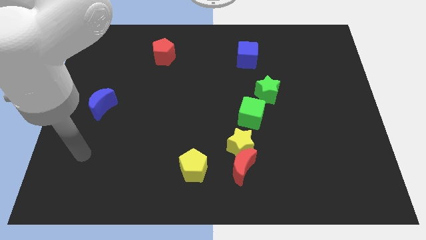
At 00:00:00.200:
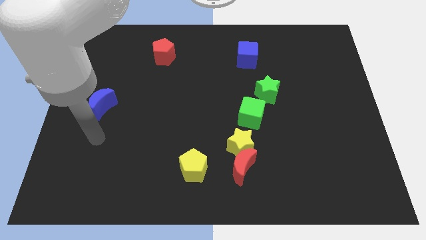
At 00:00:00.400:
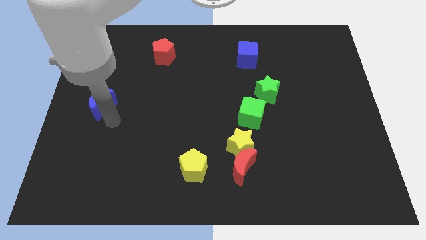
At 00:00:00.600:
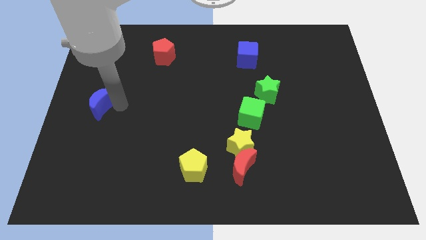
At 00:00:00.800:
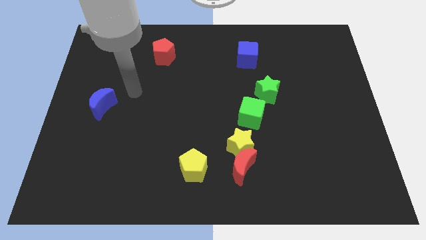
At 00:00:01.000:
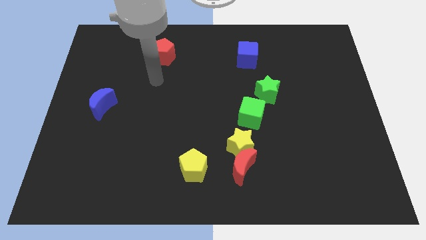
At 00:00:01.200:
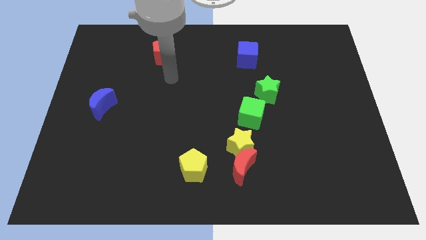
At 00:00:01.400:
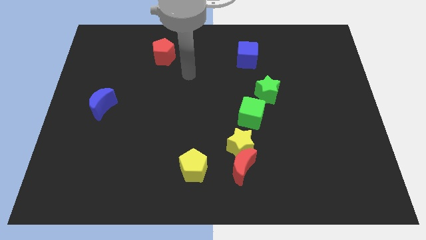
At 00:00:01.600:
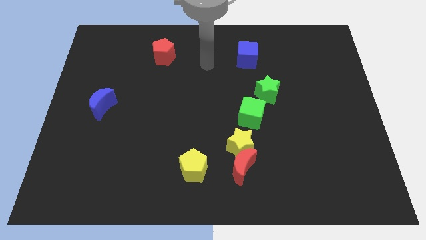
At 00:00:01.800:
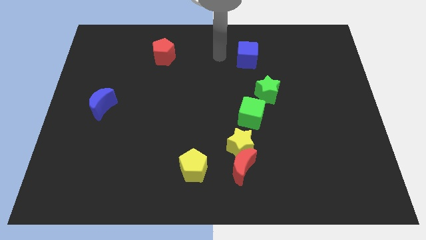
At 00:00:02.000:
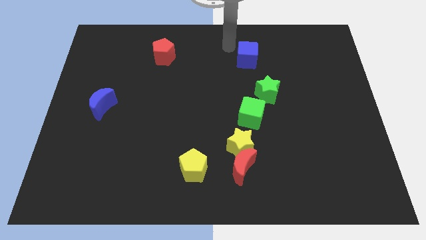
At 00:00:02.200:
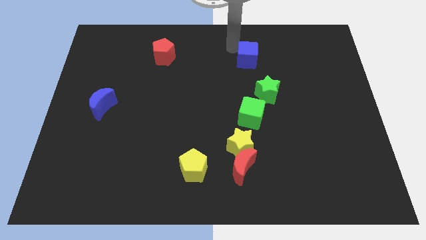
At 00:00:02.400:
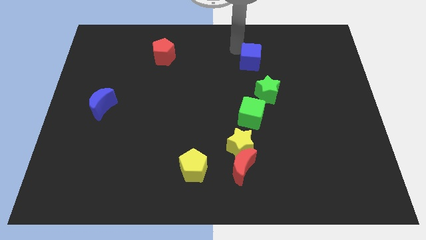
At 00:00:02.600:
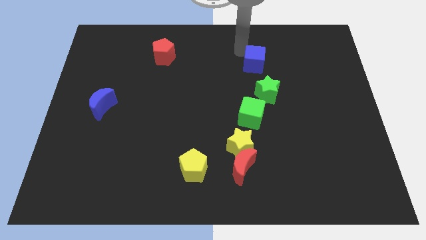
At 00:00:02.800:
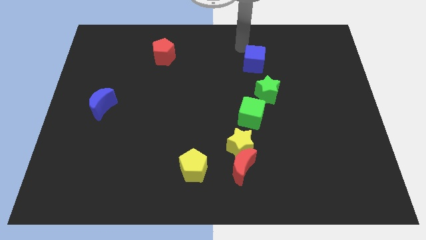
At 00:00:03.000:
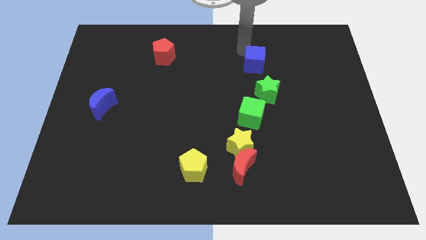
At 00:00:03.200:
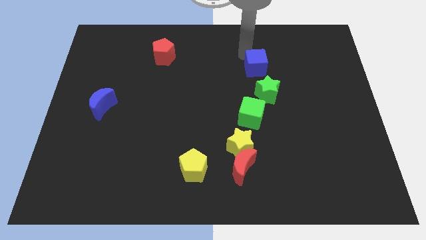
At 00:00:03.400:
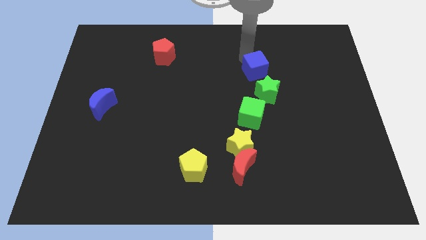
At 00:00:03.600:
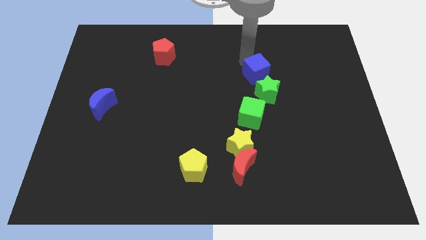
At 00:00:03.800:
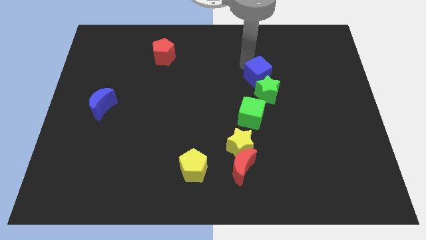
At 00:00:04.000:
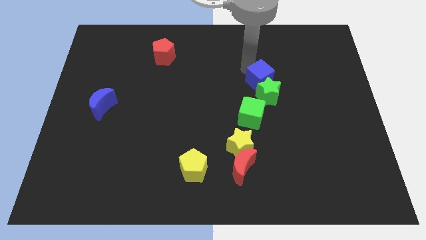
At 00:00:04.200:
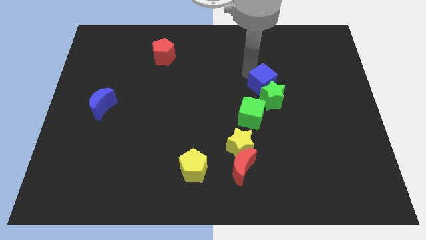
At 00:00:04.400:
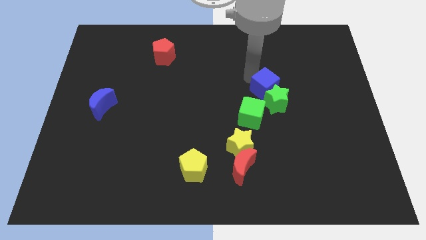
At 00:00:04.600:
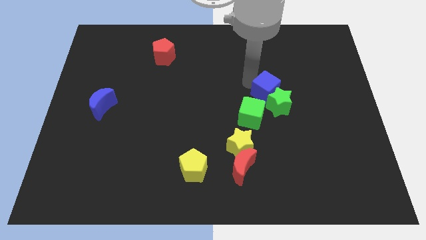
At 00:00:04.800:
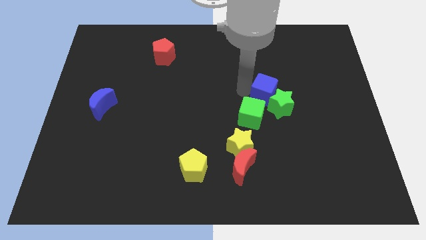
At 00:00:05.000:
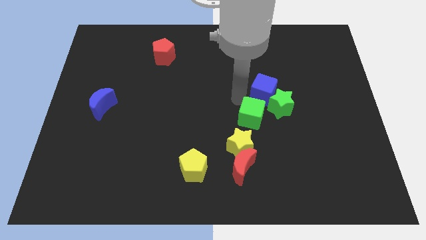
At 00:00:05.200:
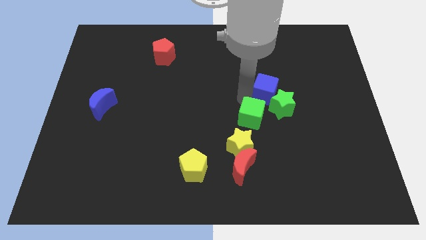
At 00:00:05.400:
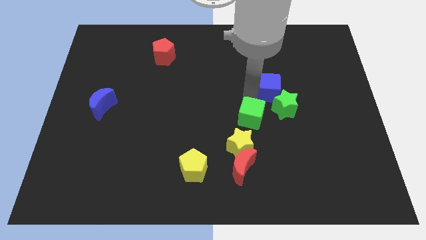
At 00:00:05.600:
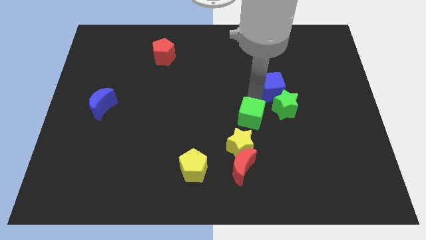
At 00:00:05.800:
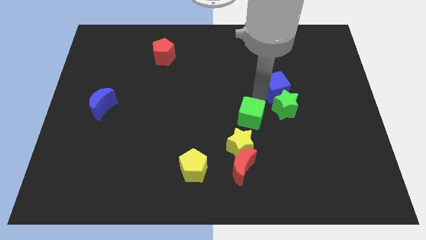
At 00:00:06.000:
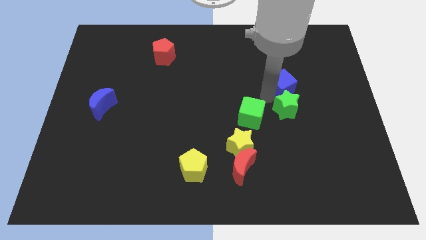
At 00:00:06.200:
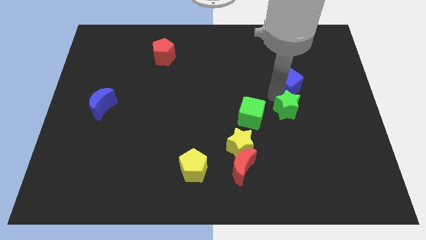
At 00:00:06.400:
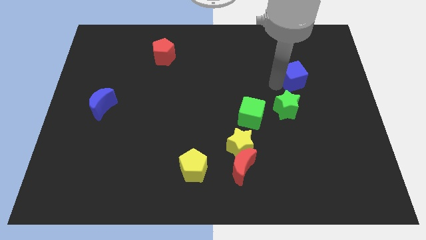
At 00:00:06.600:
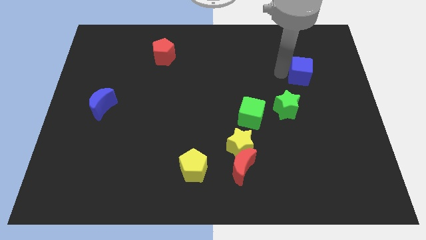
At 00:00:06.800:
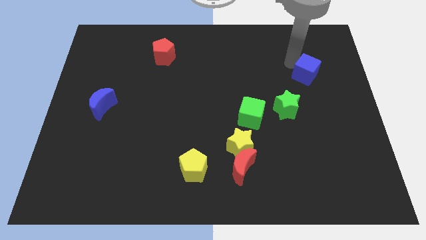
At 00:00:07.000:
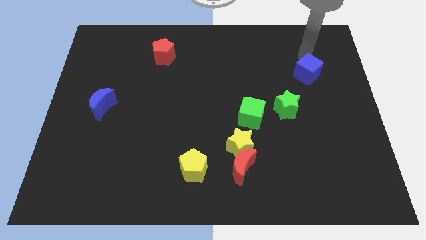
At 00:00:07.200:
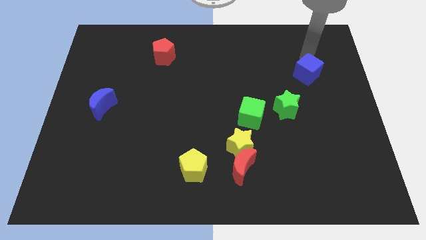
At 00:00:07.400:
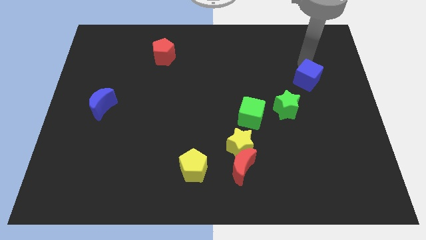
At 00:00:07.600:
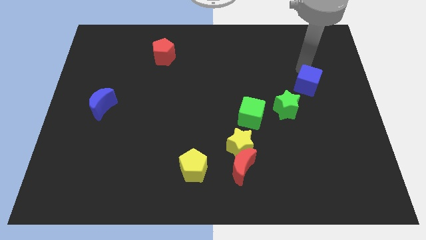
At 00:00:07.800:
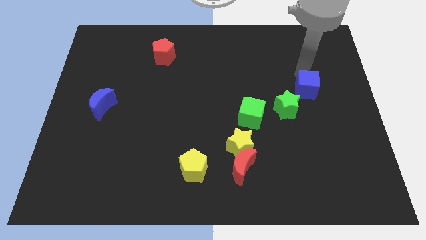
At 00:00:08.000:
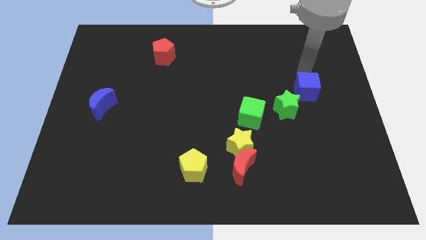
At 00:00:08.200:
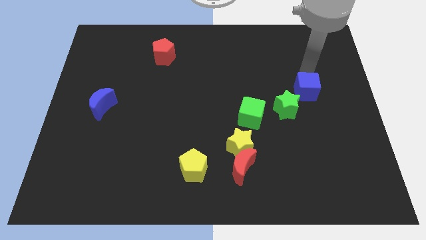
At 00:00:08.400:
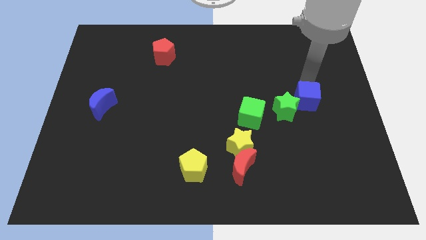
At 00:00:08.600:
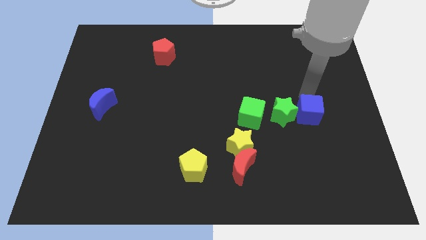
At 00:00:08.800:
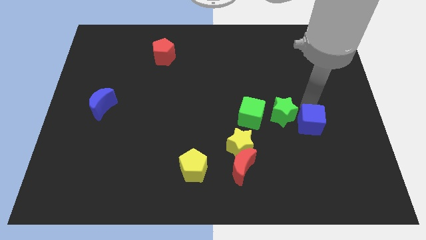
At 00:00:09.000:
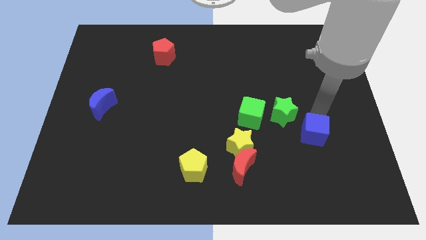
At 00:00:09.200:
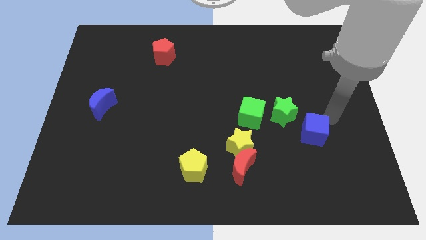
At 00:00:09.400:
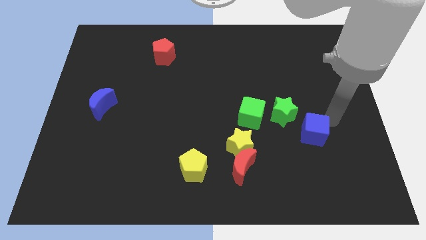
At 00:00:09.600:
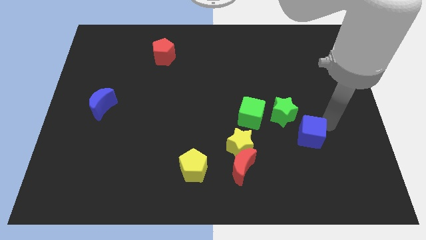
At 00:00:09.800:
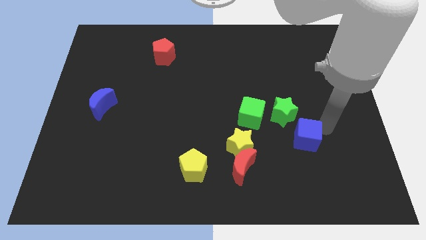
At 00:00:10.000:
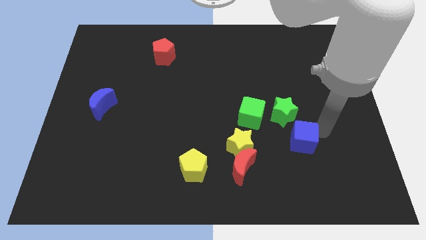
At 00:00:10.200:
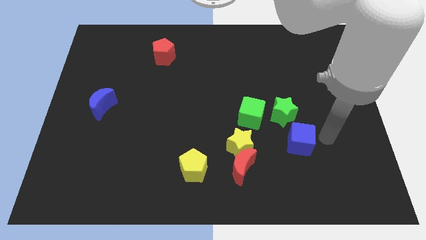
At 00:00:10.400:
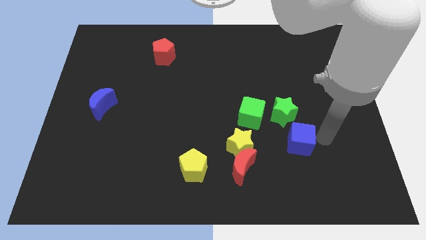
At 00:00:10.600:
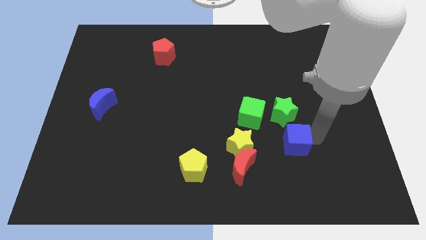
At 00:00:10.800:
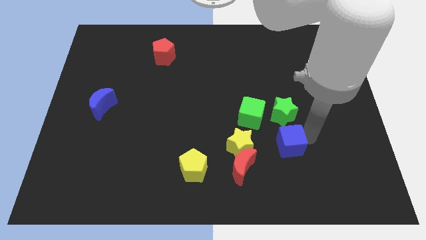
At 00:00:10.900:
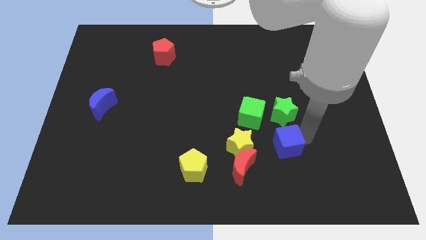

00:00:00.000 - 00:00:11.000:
slide the blue cube to the top right side of the red moon

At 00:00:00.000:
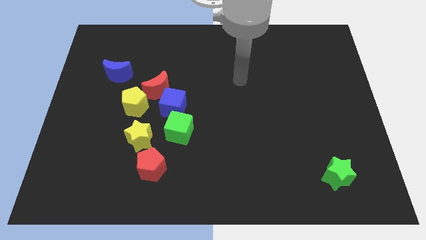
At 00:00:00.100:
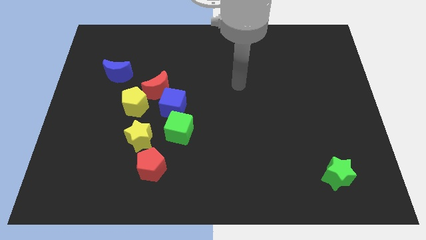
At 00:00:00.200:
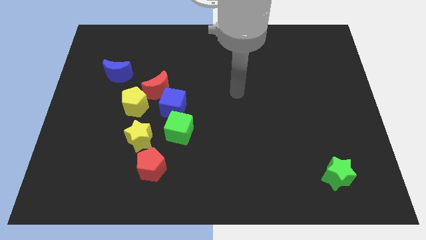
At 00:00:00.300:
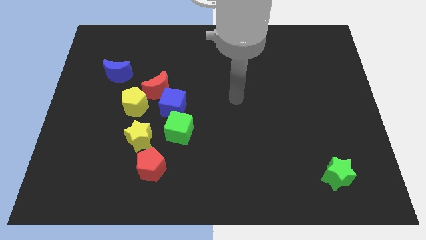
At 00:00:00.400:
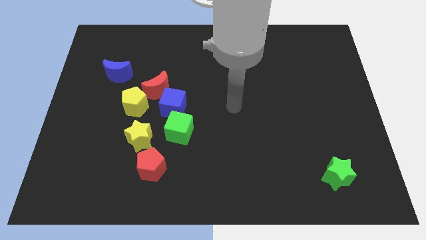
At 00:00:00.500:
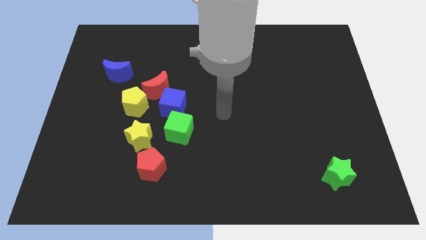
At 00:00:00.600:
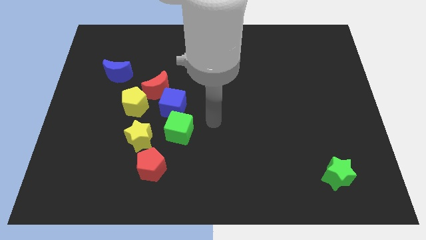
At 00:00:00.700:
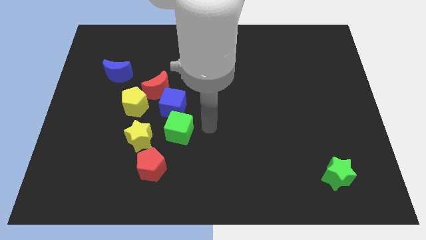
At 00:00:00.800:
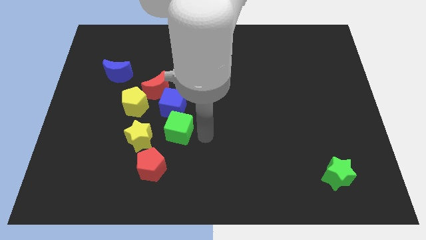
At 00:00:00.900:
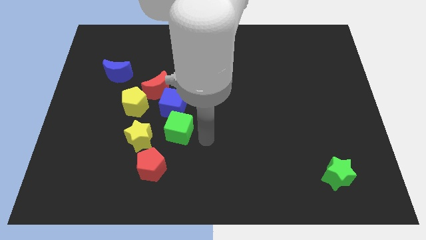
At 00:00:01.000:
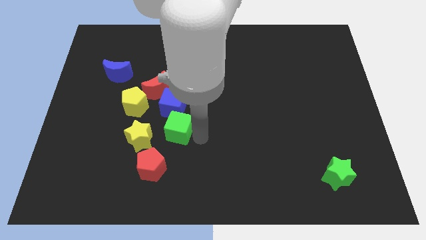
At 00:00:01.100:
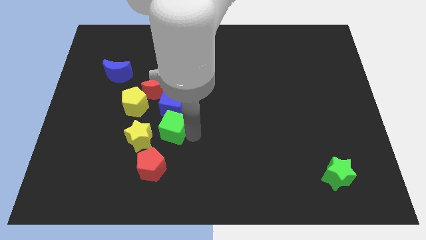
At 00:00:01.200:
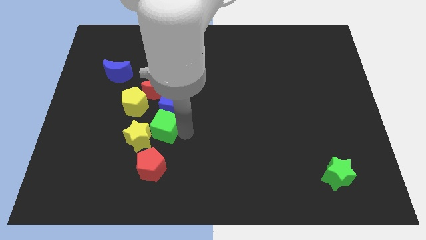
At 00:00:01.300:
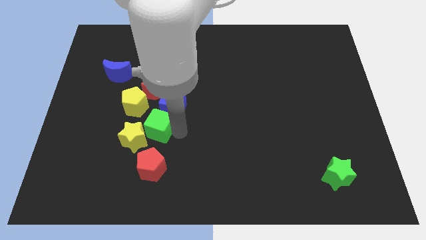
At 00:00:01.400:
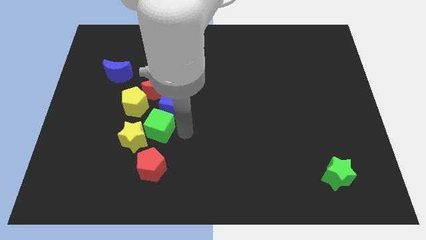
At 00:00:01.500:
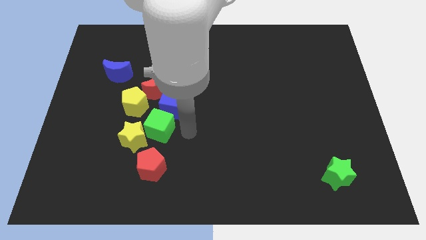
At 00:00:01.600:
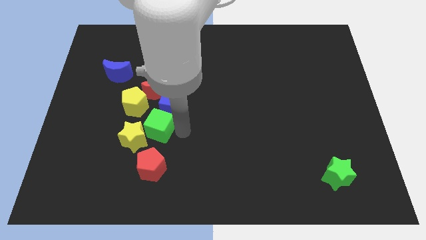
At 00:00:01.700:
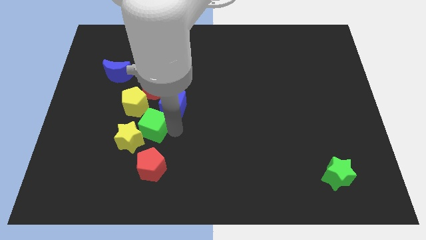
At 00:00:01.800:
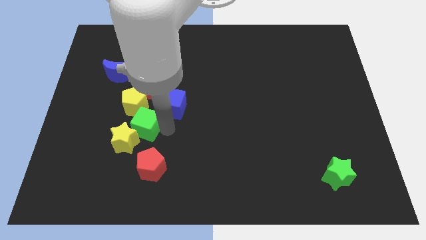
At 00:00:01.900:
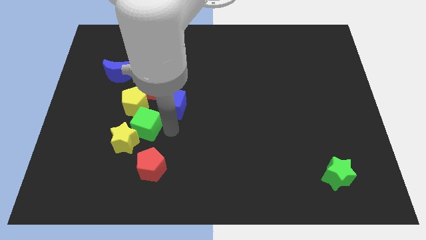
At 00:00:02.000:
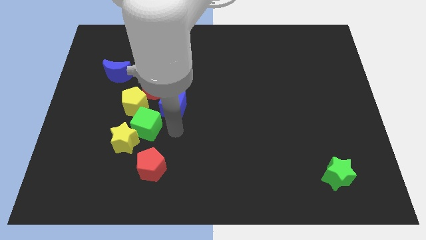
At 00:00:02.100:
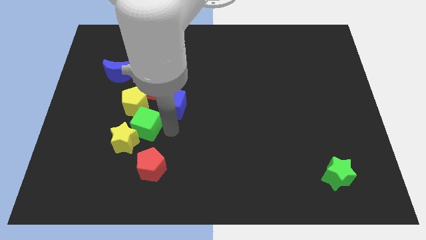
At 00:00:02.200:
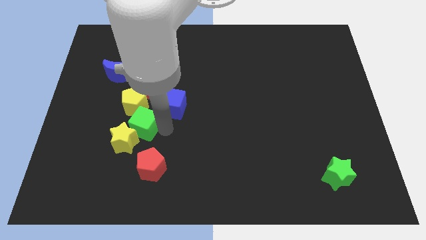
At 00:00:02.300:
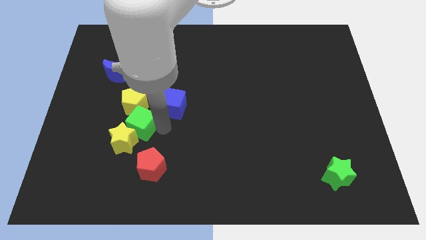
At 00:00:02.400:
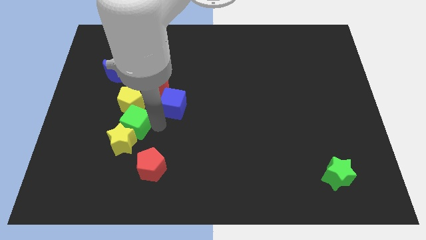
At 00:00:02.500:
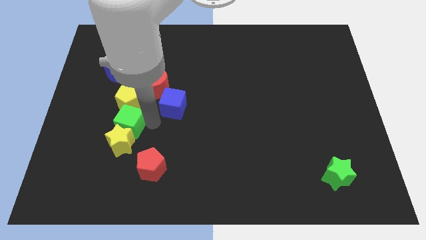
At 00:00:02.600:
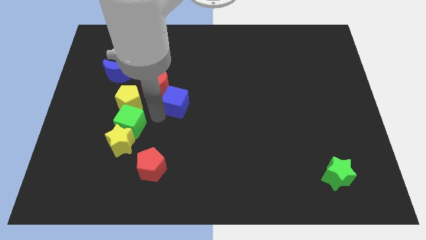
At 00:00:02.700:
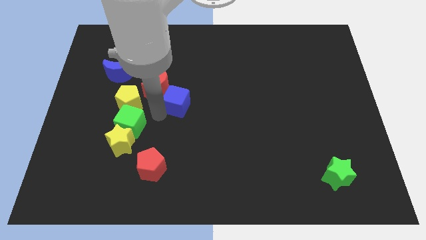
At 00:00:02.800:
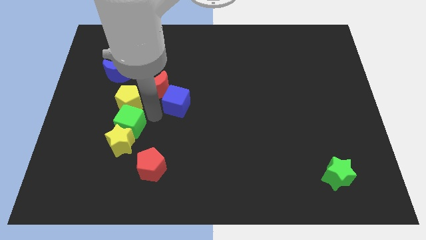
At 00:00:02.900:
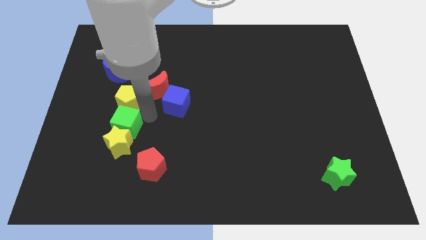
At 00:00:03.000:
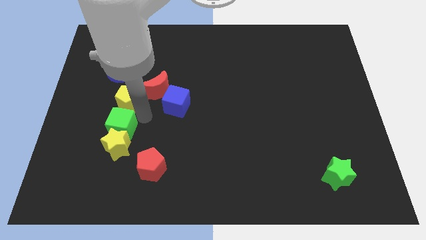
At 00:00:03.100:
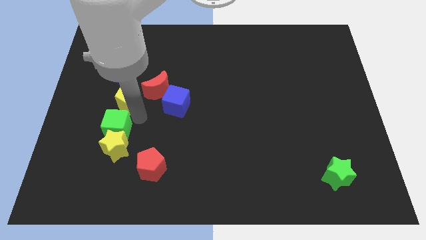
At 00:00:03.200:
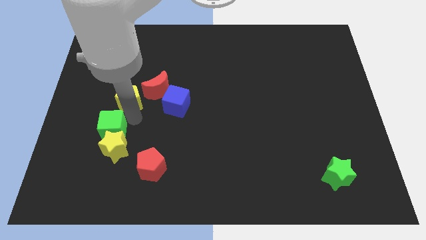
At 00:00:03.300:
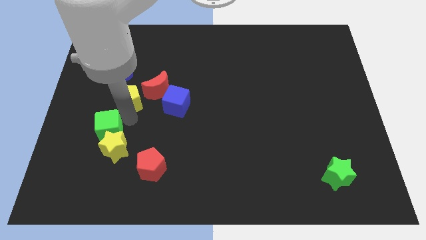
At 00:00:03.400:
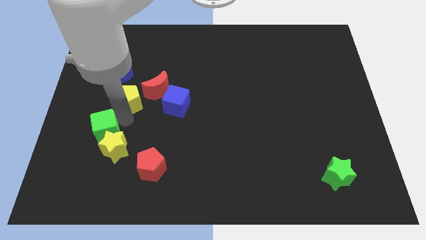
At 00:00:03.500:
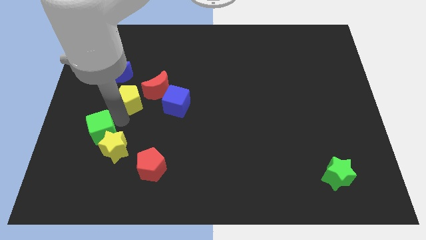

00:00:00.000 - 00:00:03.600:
push the green cube to the left of the yellow star
